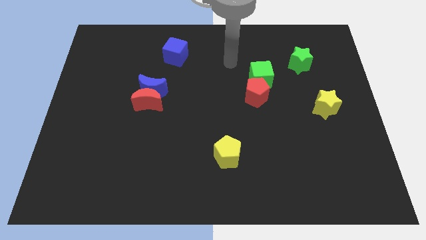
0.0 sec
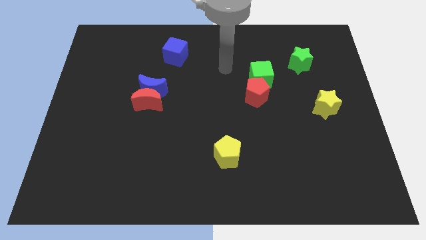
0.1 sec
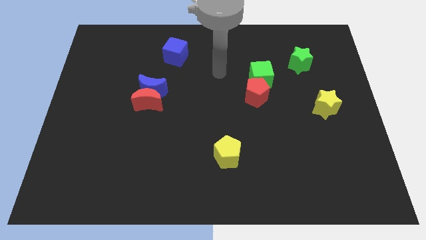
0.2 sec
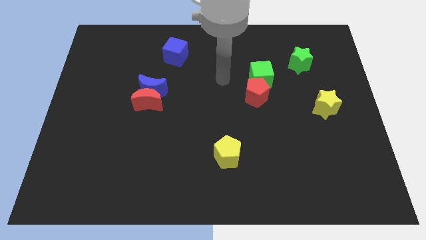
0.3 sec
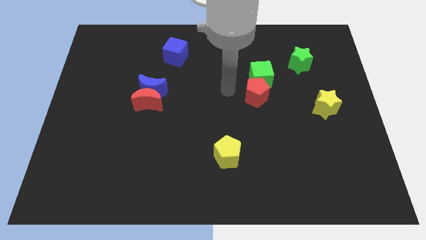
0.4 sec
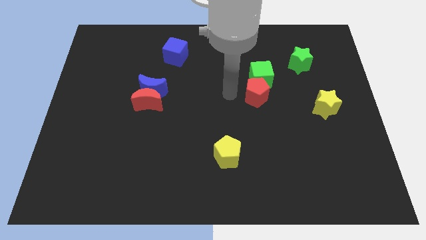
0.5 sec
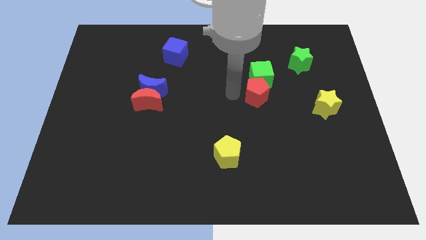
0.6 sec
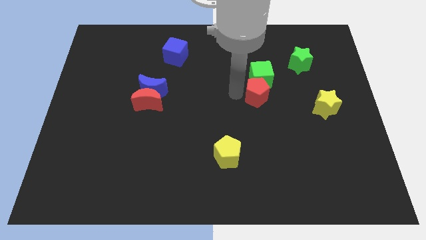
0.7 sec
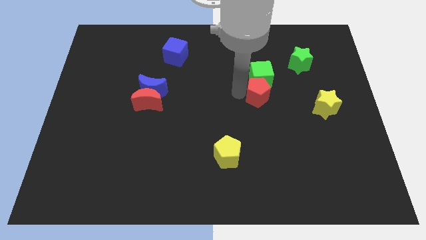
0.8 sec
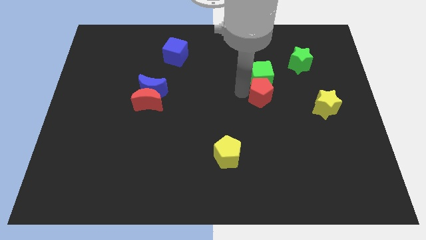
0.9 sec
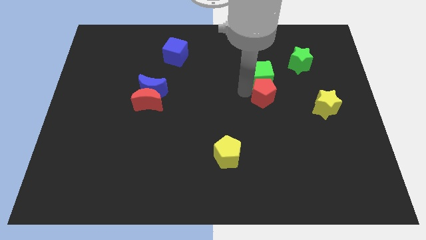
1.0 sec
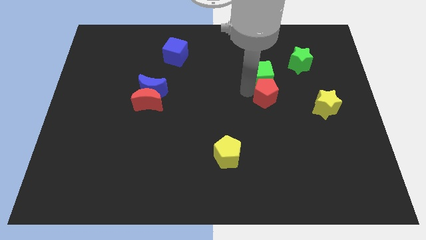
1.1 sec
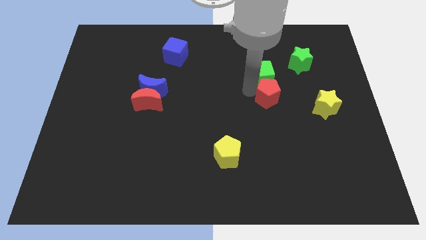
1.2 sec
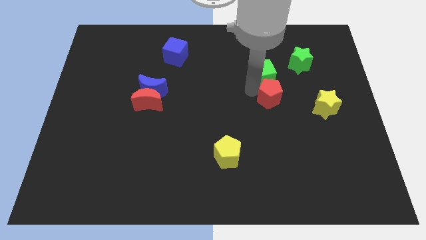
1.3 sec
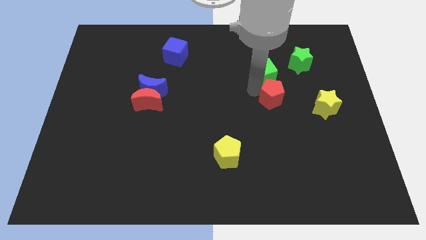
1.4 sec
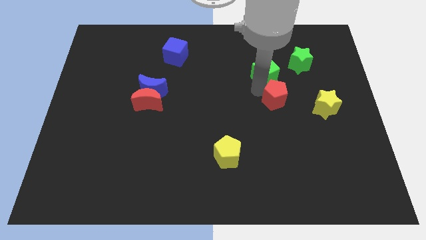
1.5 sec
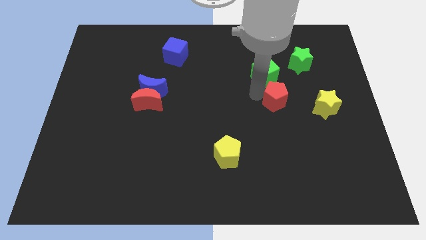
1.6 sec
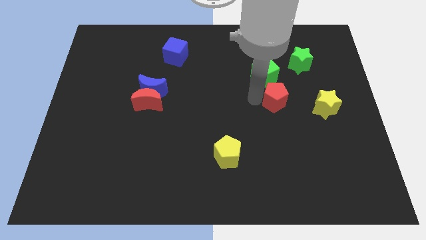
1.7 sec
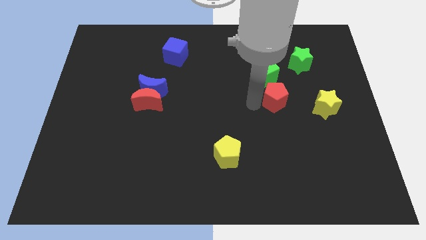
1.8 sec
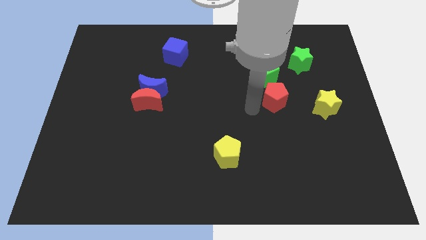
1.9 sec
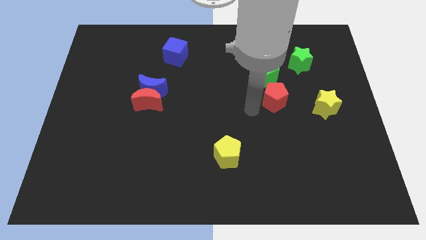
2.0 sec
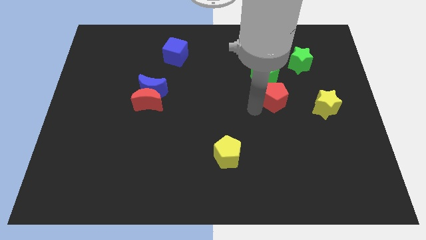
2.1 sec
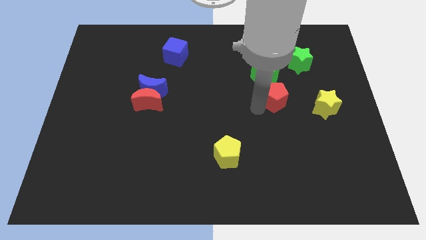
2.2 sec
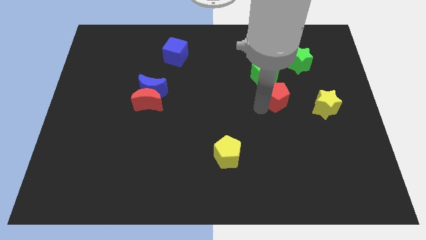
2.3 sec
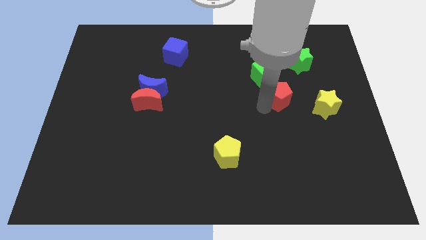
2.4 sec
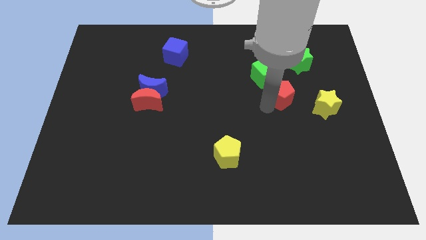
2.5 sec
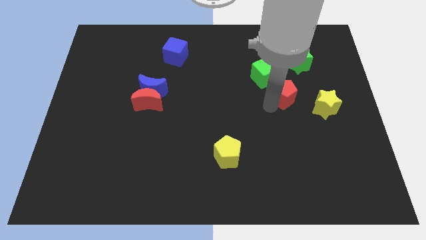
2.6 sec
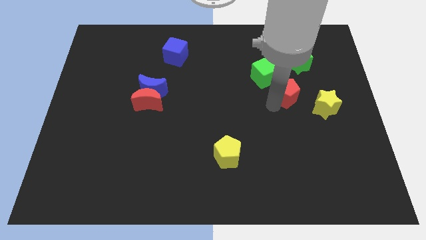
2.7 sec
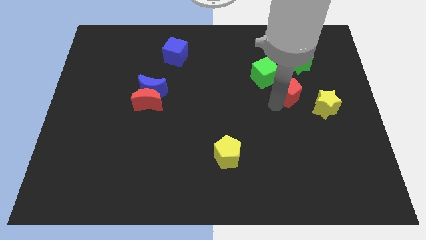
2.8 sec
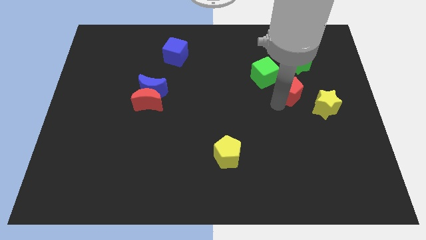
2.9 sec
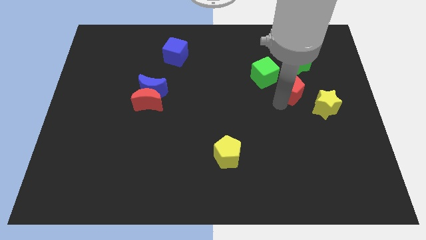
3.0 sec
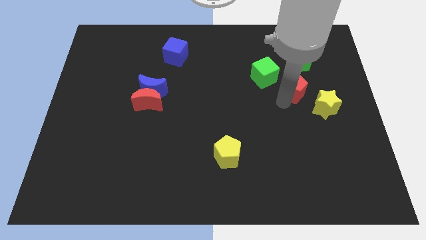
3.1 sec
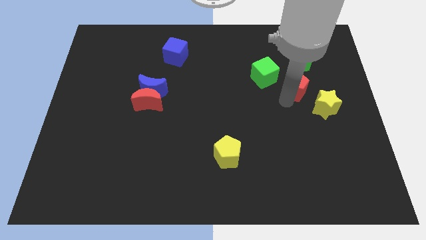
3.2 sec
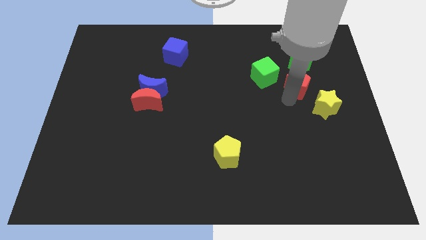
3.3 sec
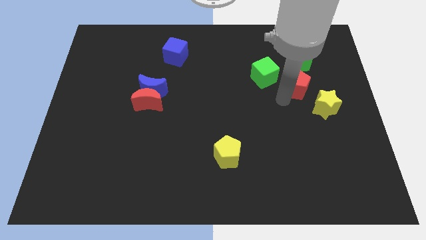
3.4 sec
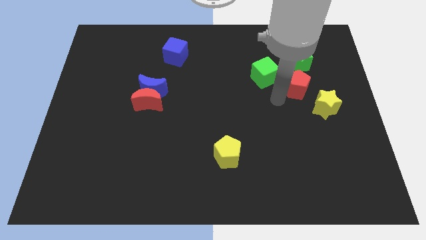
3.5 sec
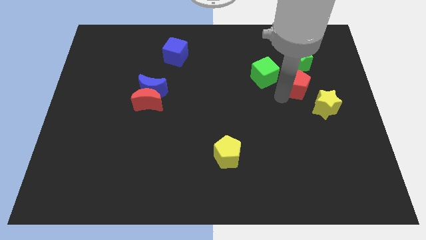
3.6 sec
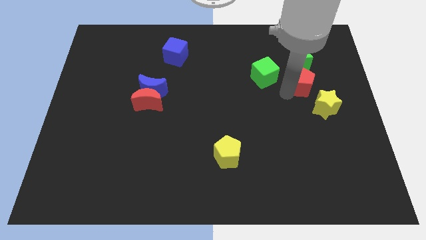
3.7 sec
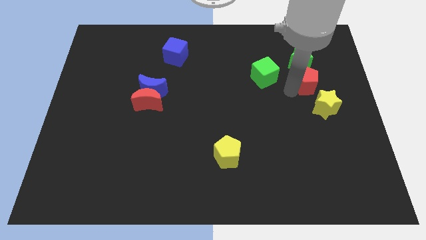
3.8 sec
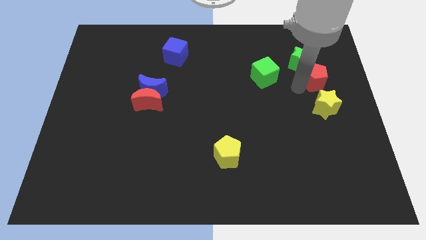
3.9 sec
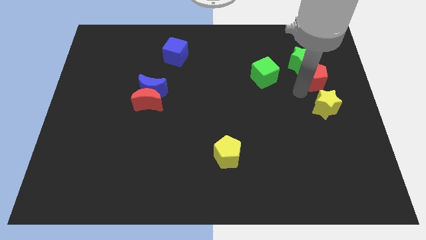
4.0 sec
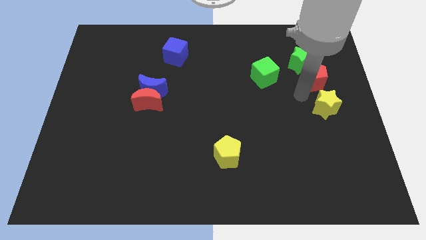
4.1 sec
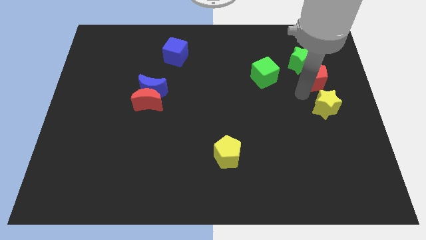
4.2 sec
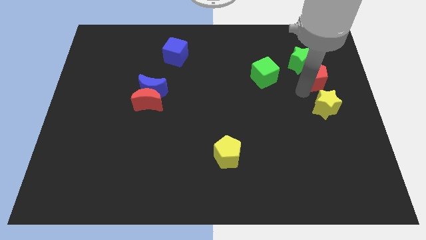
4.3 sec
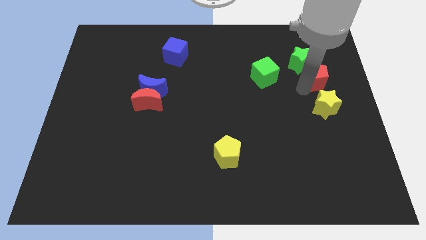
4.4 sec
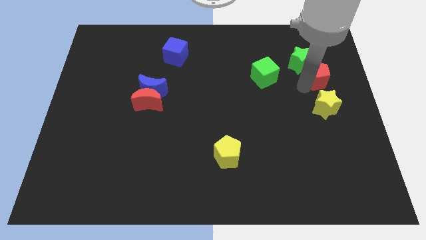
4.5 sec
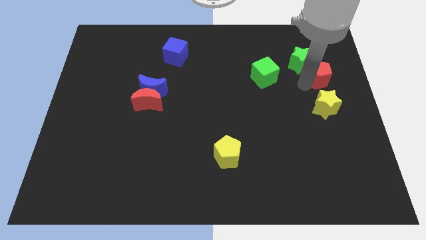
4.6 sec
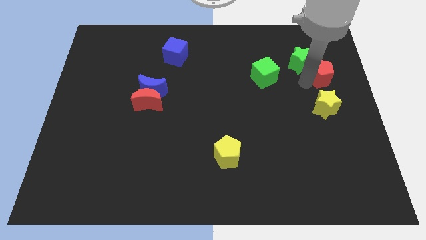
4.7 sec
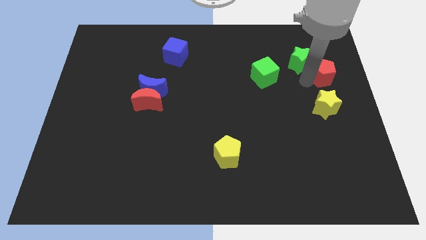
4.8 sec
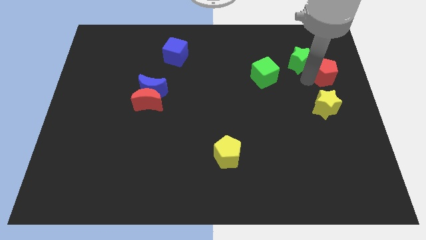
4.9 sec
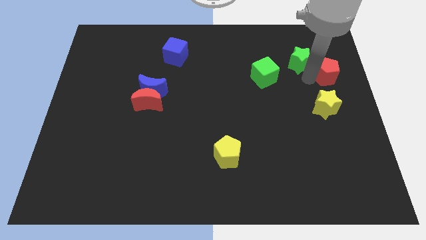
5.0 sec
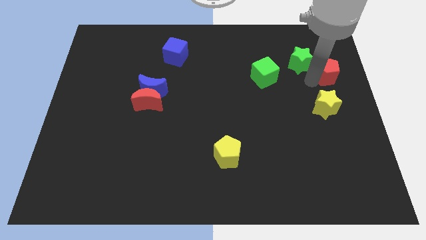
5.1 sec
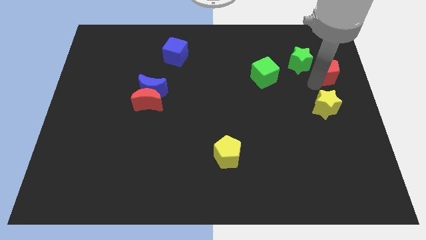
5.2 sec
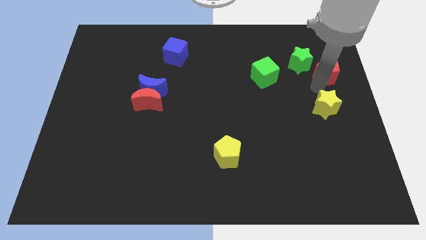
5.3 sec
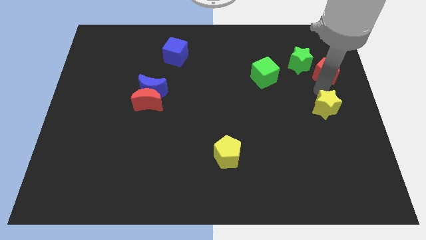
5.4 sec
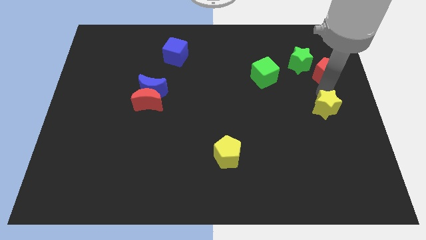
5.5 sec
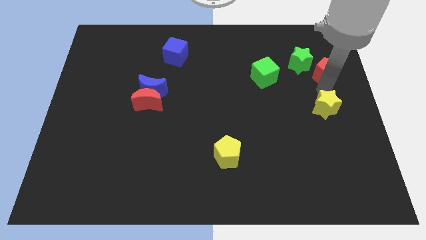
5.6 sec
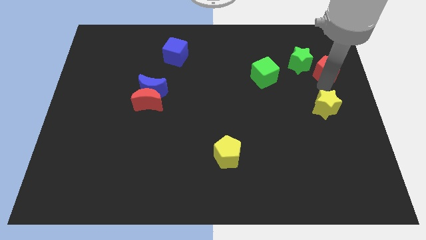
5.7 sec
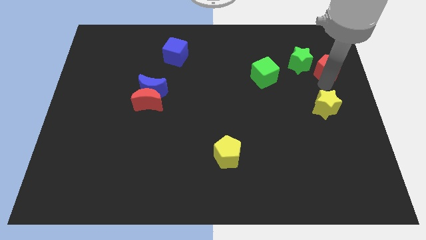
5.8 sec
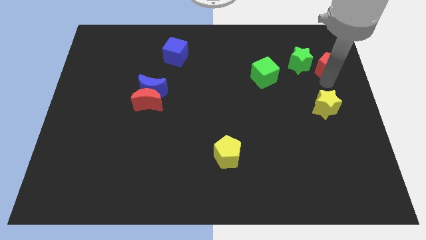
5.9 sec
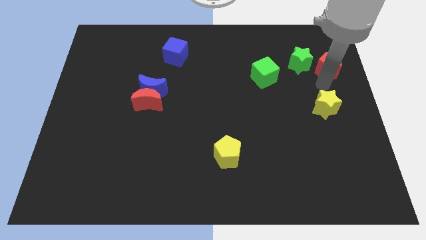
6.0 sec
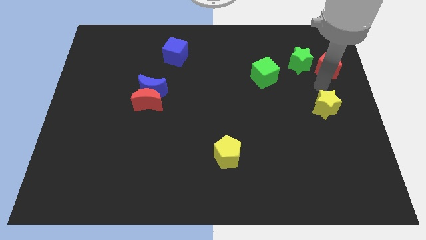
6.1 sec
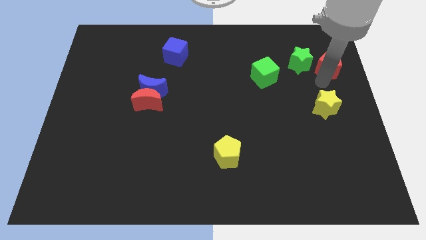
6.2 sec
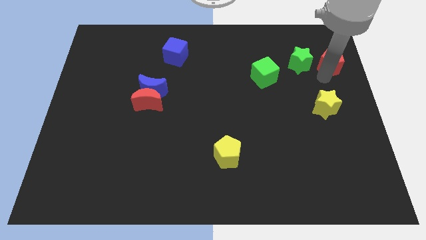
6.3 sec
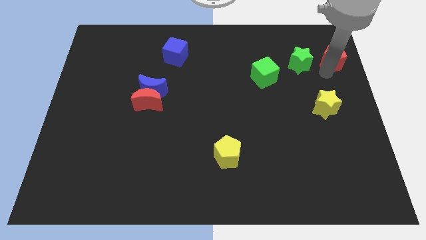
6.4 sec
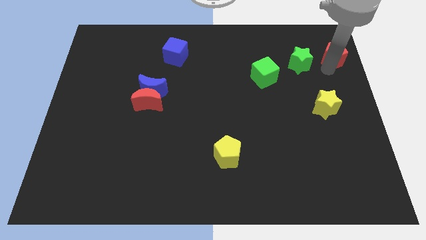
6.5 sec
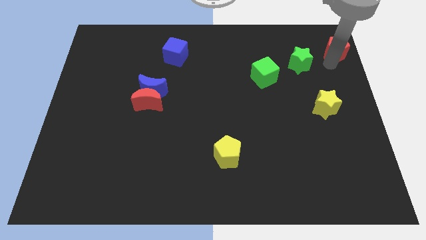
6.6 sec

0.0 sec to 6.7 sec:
put the red pentagon to the top right
